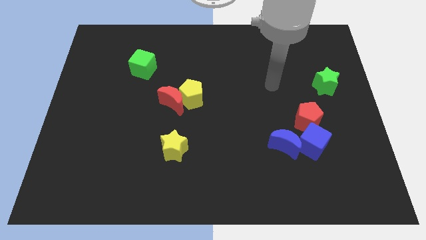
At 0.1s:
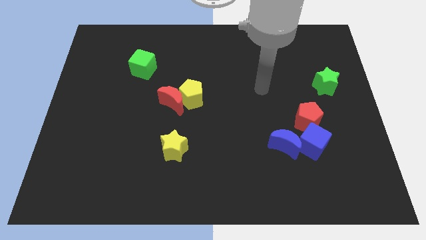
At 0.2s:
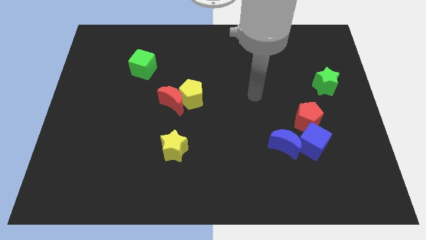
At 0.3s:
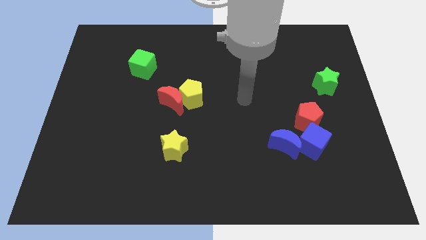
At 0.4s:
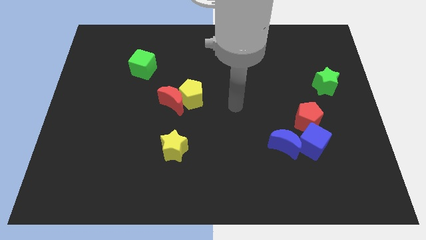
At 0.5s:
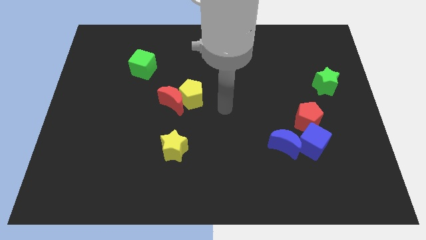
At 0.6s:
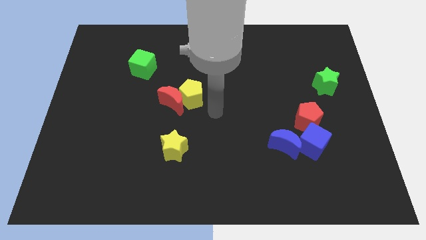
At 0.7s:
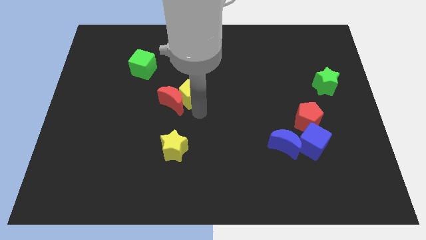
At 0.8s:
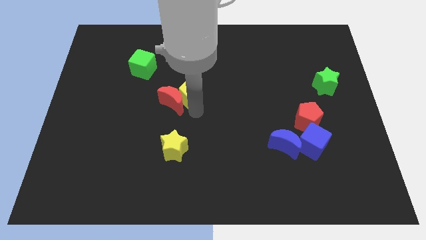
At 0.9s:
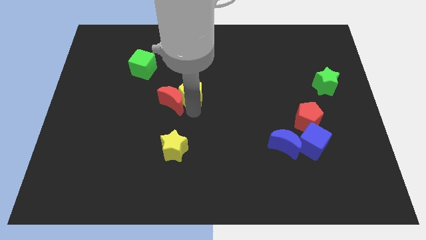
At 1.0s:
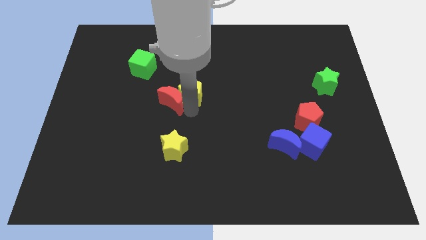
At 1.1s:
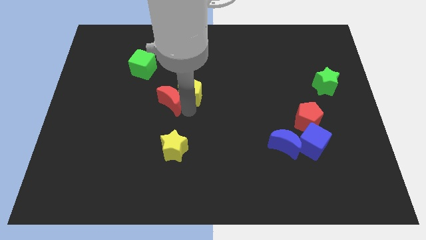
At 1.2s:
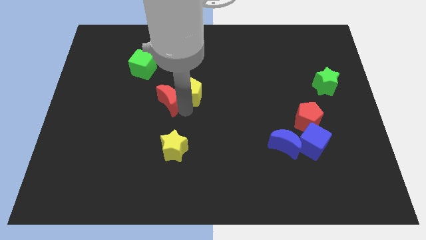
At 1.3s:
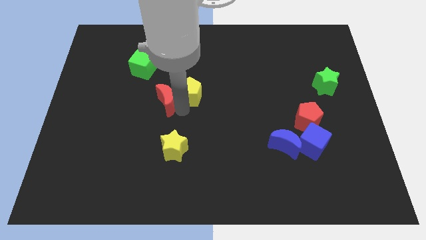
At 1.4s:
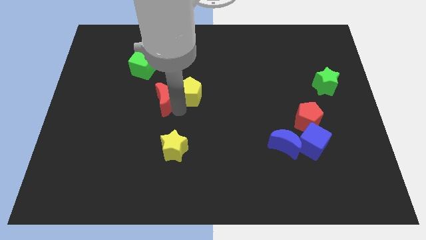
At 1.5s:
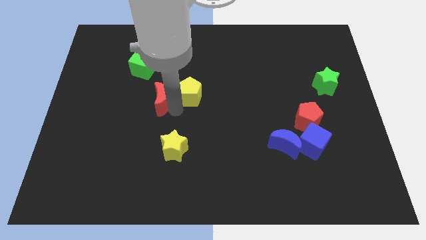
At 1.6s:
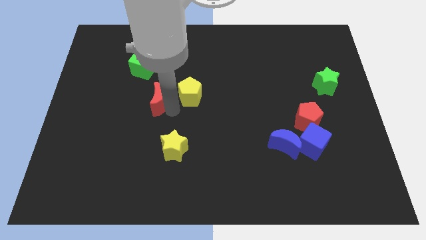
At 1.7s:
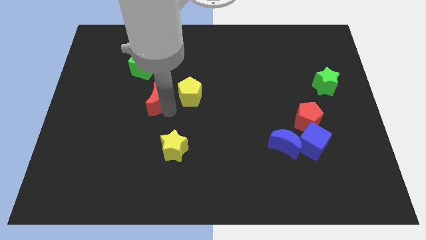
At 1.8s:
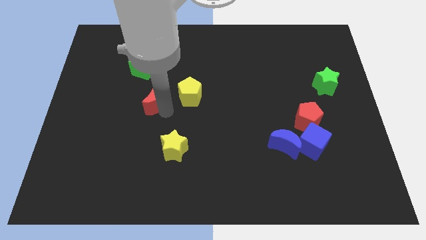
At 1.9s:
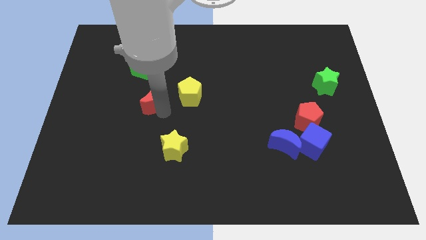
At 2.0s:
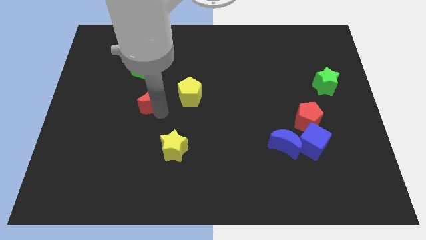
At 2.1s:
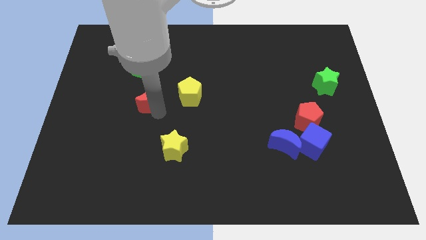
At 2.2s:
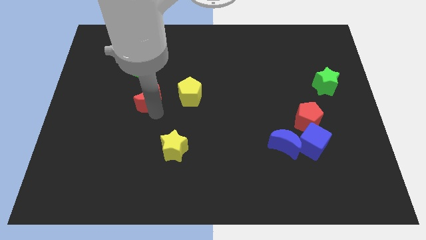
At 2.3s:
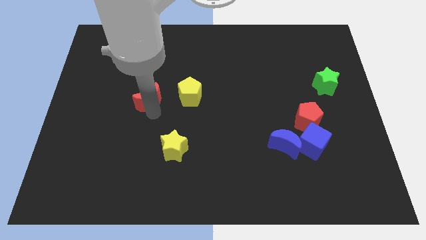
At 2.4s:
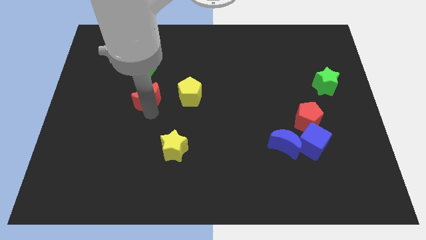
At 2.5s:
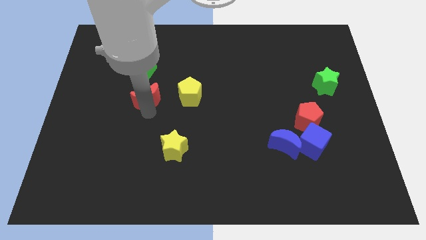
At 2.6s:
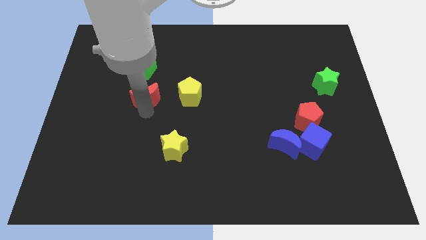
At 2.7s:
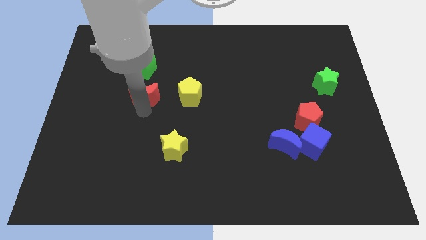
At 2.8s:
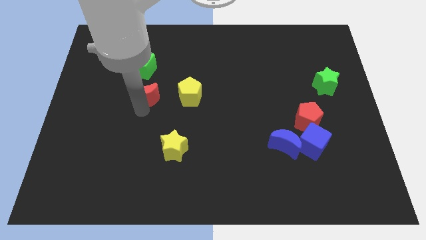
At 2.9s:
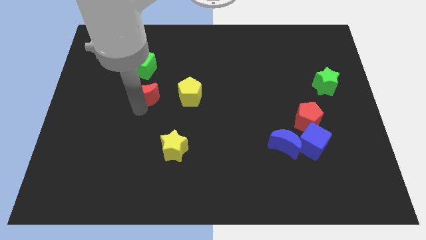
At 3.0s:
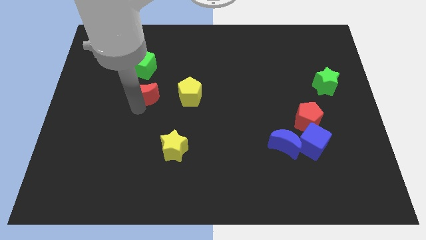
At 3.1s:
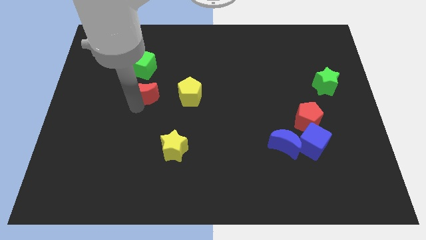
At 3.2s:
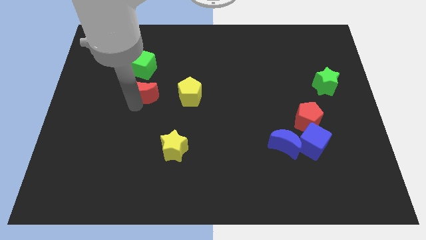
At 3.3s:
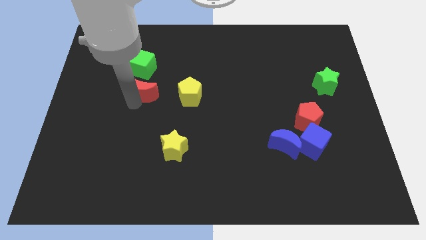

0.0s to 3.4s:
slightly slide the red moon diagonally up and left

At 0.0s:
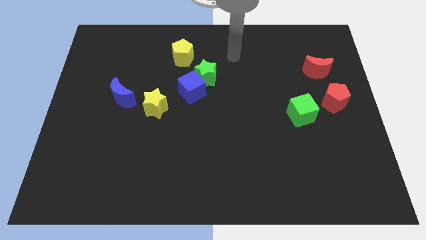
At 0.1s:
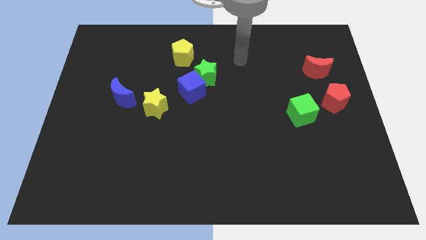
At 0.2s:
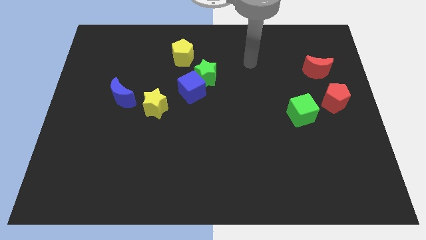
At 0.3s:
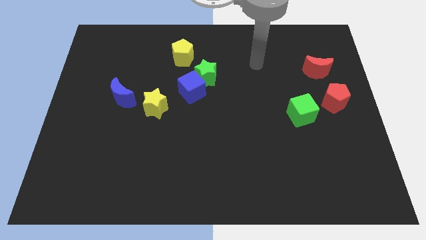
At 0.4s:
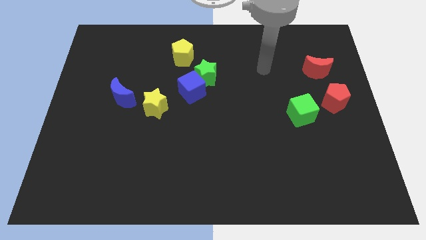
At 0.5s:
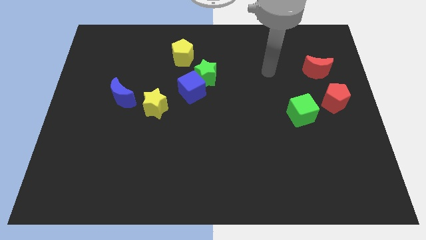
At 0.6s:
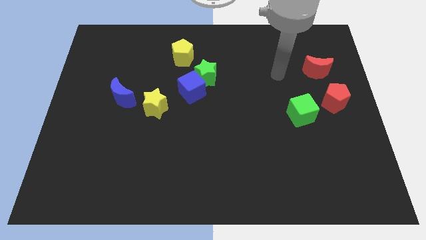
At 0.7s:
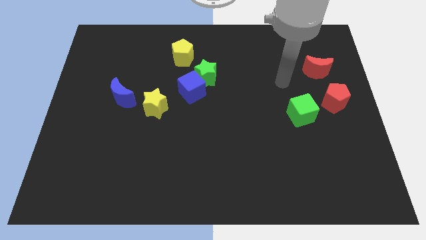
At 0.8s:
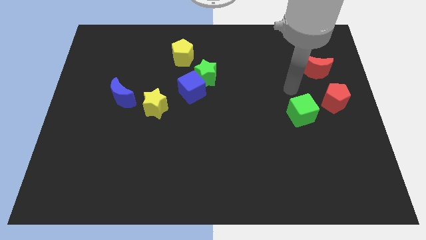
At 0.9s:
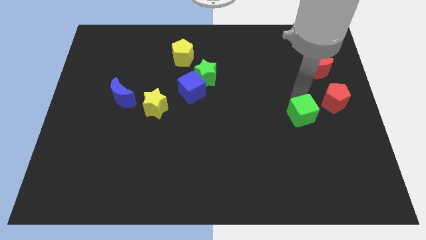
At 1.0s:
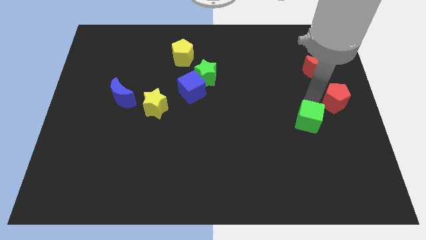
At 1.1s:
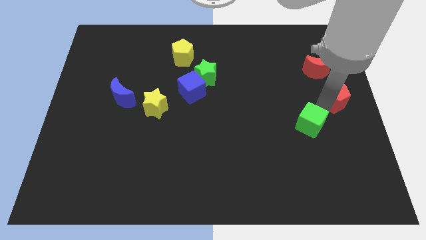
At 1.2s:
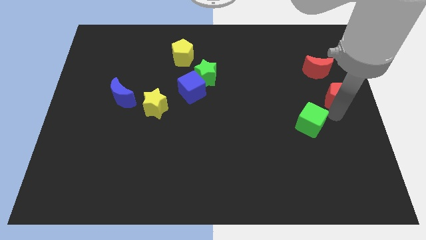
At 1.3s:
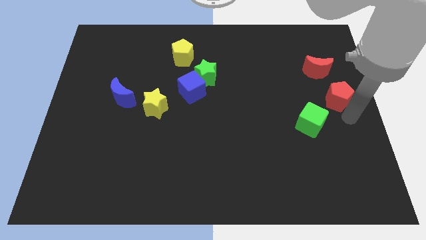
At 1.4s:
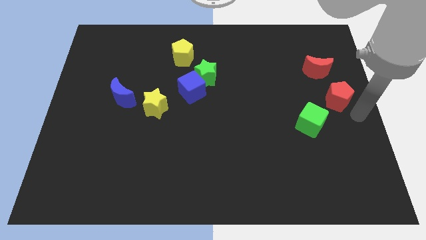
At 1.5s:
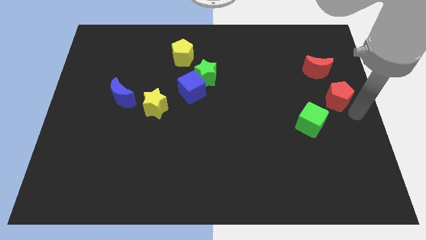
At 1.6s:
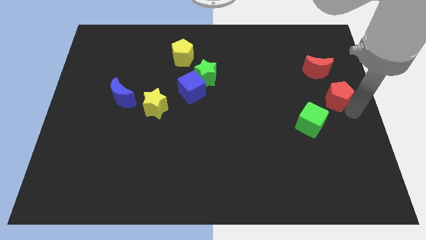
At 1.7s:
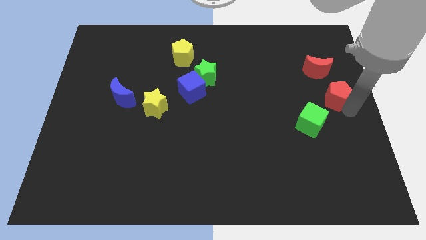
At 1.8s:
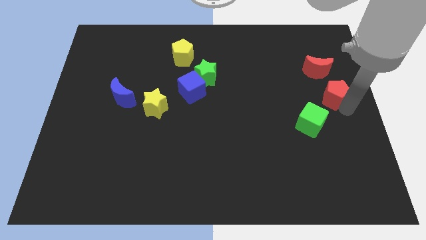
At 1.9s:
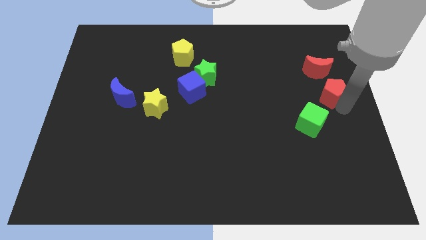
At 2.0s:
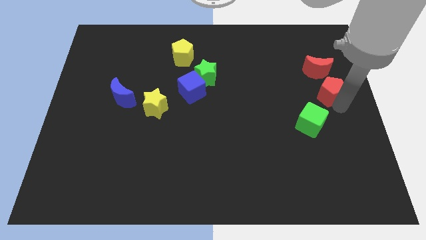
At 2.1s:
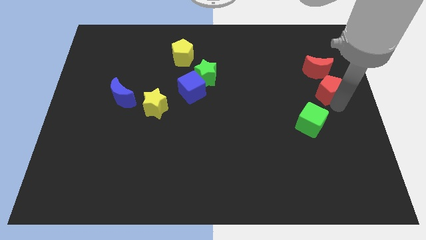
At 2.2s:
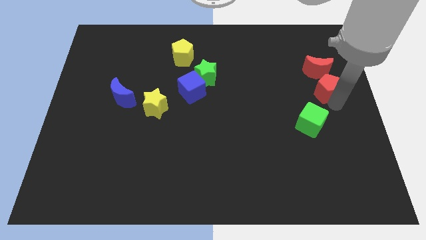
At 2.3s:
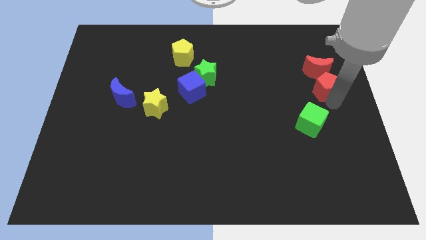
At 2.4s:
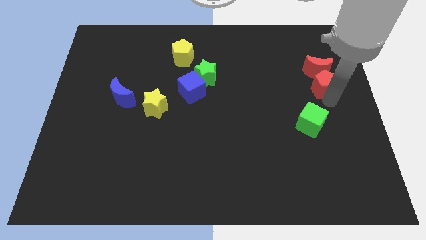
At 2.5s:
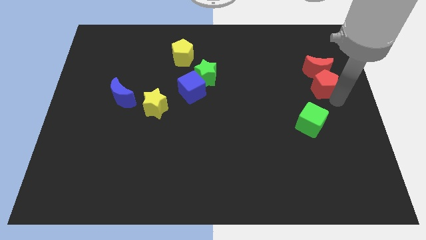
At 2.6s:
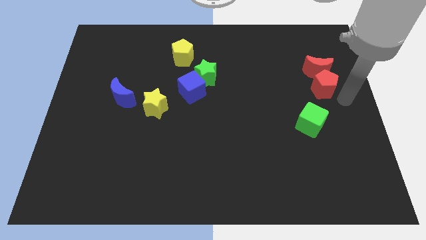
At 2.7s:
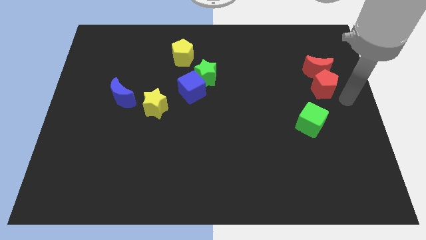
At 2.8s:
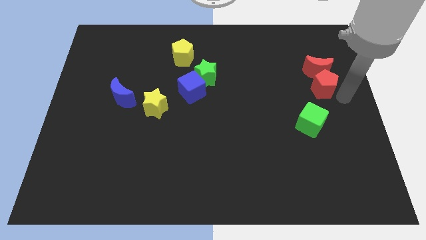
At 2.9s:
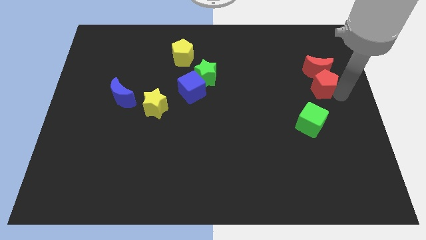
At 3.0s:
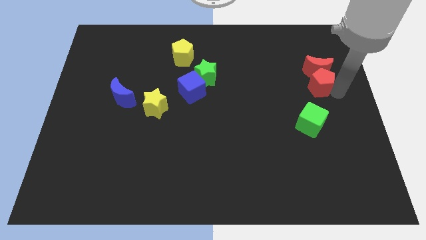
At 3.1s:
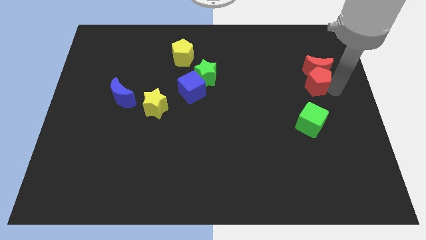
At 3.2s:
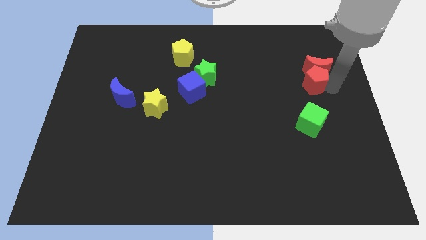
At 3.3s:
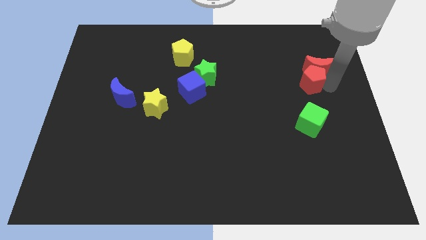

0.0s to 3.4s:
move the red pentagon diagonally upwards and left slightly

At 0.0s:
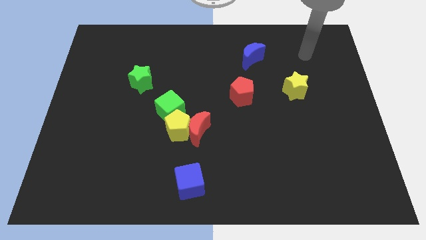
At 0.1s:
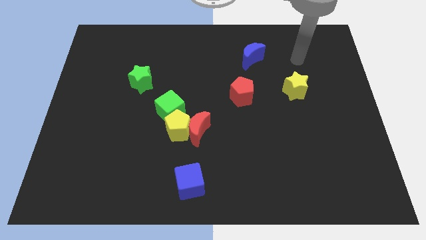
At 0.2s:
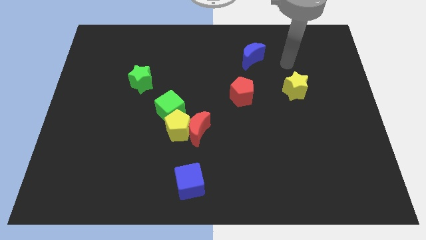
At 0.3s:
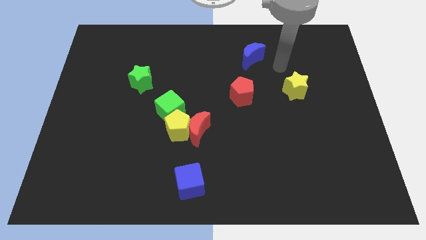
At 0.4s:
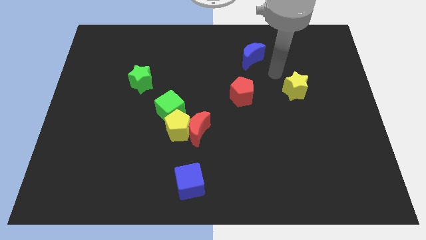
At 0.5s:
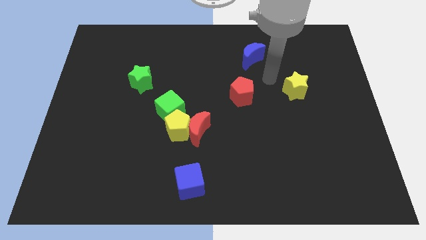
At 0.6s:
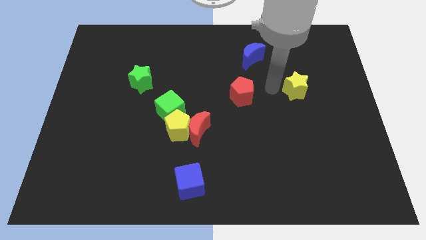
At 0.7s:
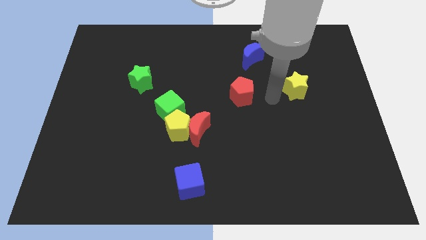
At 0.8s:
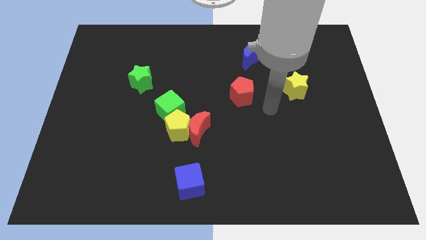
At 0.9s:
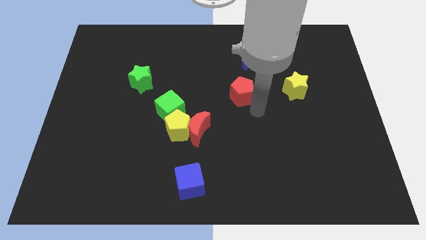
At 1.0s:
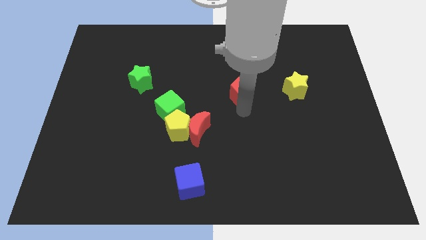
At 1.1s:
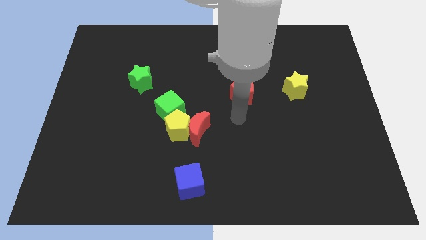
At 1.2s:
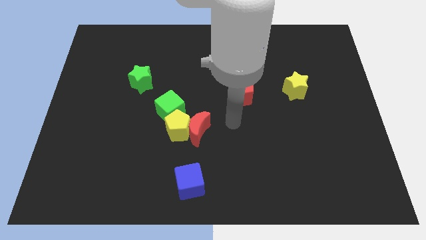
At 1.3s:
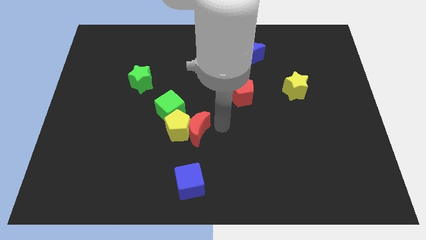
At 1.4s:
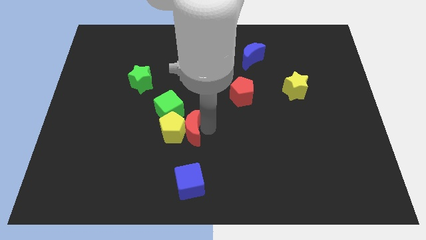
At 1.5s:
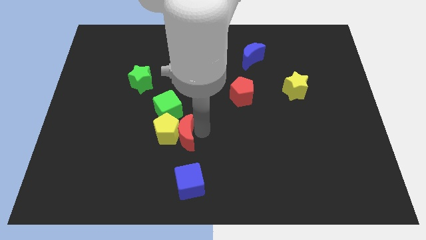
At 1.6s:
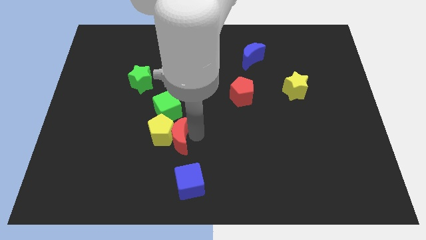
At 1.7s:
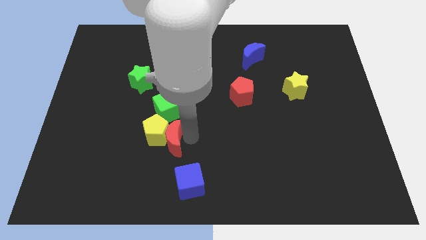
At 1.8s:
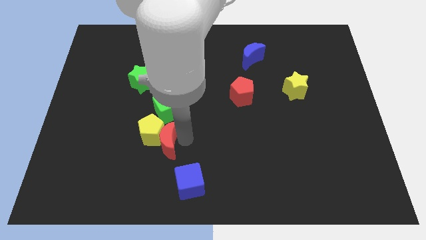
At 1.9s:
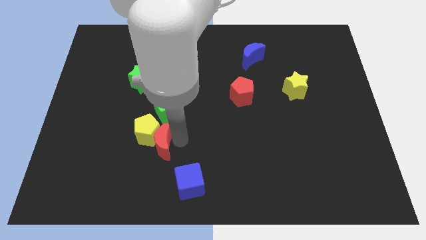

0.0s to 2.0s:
push the yellow pentagon left a bit
